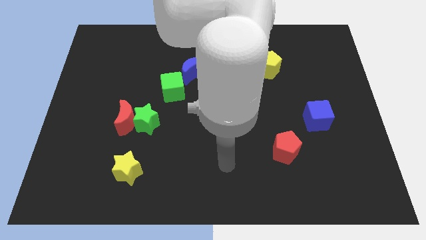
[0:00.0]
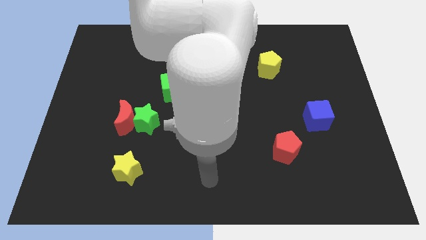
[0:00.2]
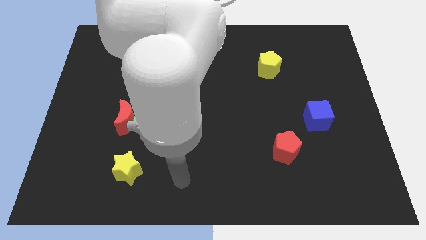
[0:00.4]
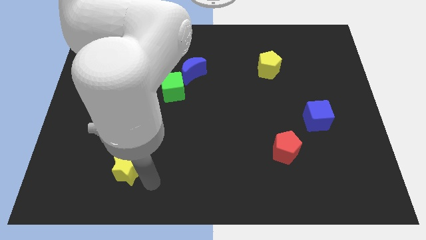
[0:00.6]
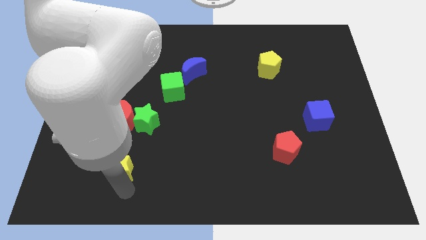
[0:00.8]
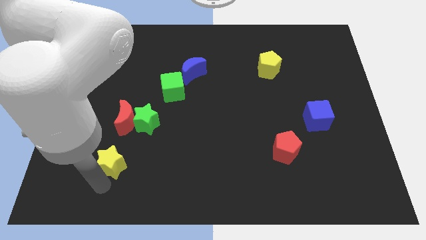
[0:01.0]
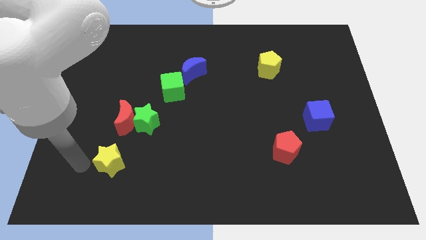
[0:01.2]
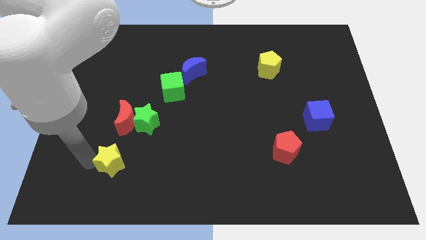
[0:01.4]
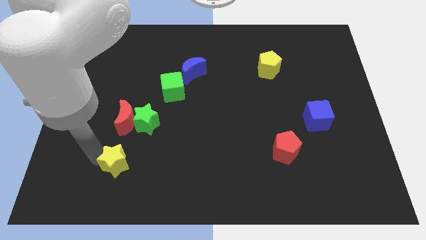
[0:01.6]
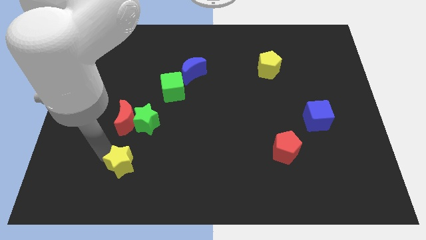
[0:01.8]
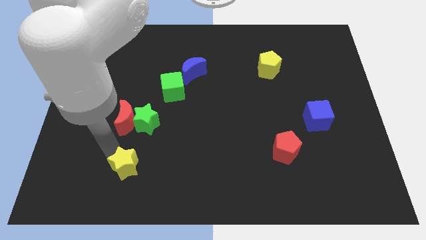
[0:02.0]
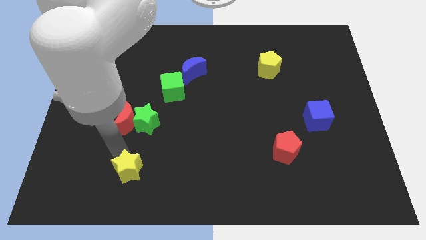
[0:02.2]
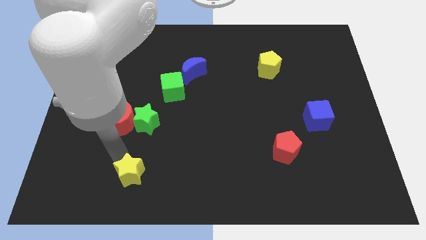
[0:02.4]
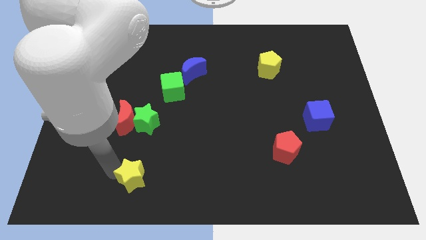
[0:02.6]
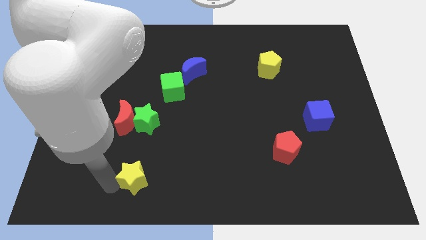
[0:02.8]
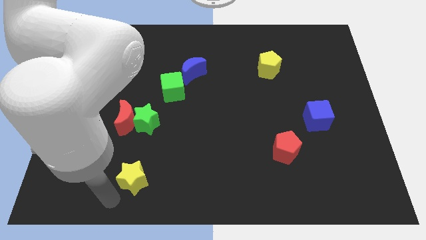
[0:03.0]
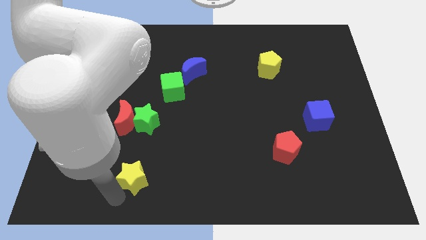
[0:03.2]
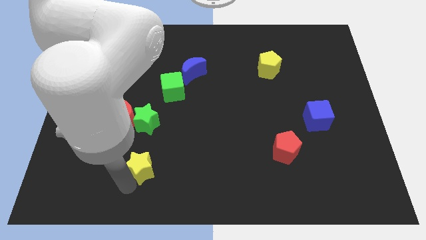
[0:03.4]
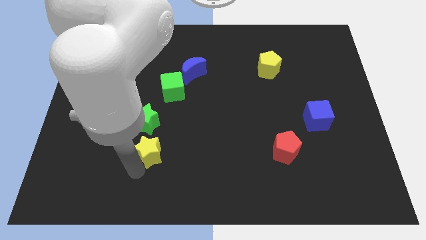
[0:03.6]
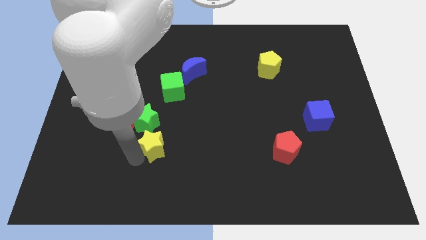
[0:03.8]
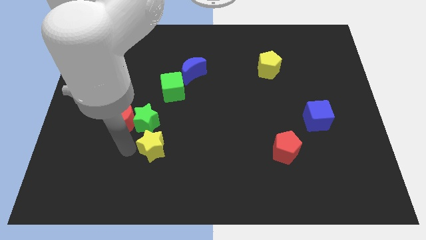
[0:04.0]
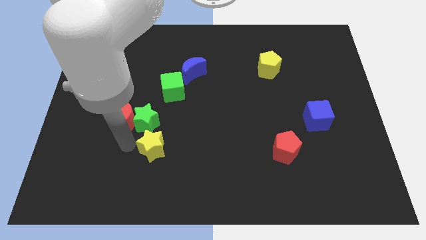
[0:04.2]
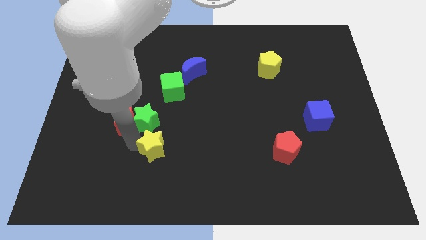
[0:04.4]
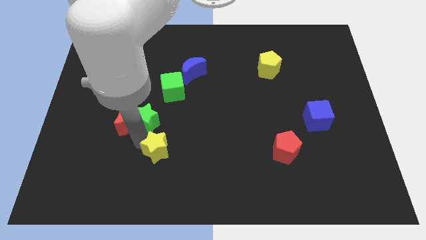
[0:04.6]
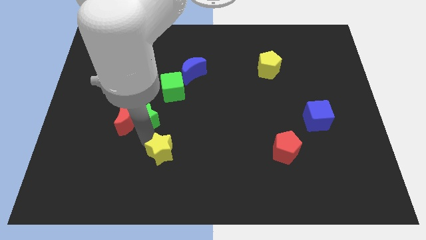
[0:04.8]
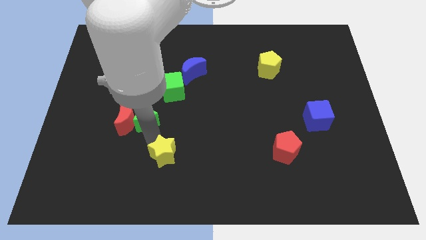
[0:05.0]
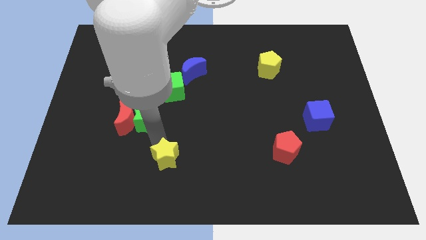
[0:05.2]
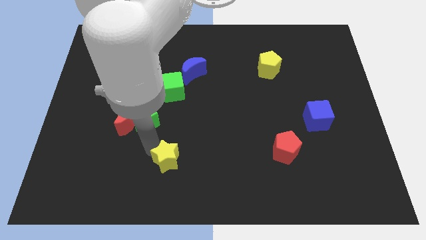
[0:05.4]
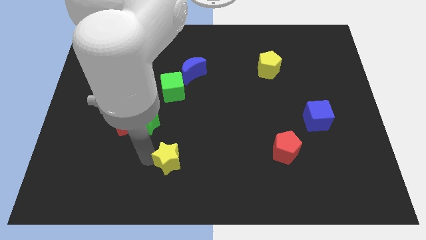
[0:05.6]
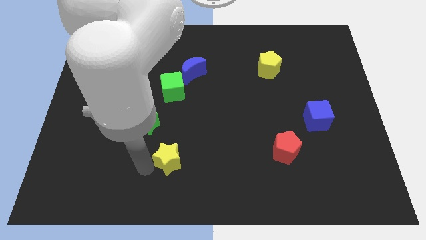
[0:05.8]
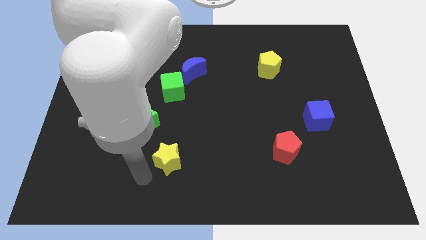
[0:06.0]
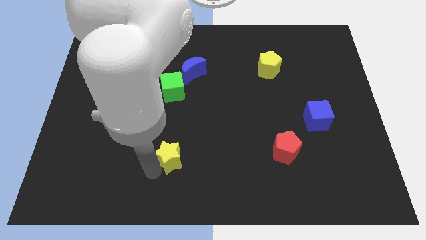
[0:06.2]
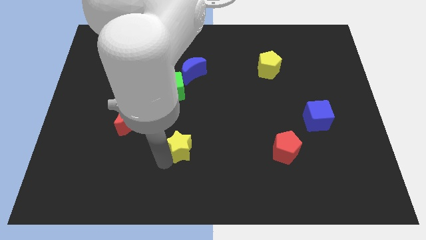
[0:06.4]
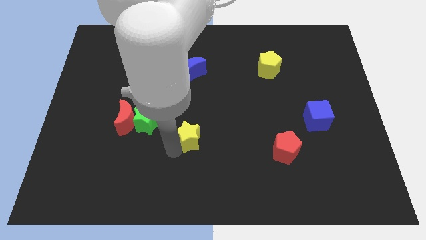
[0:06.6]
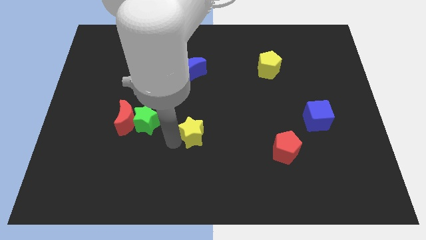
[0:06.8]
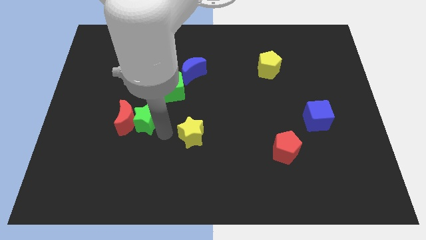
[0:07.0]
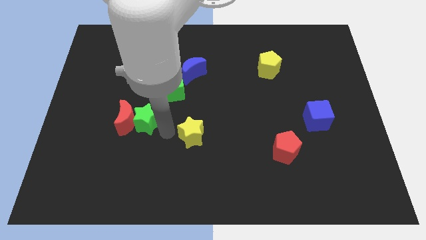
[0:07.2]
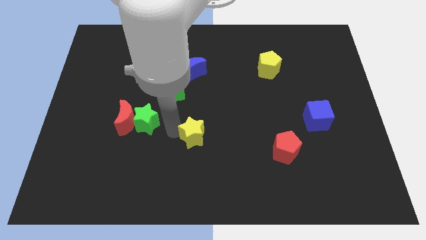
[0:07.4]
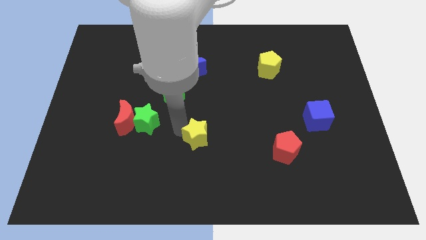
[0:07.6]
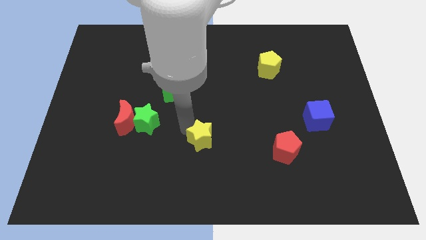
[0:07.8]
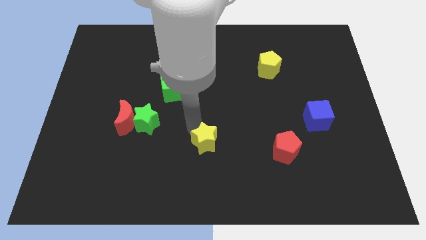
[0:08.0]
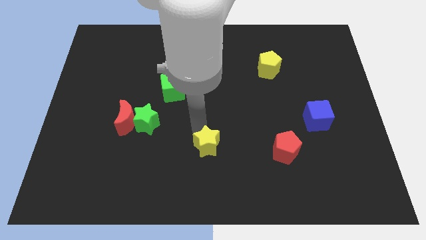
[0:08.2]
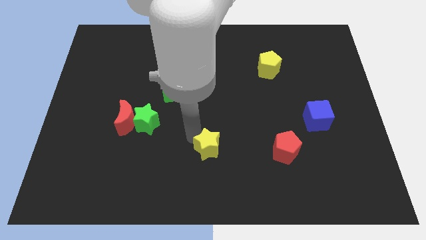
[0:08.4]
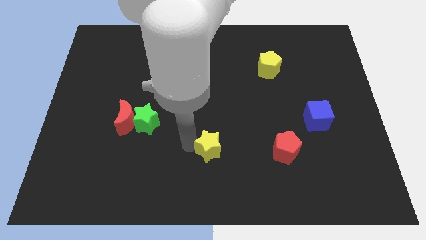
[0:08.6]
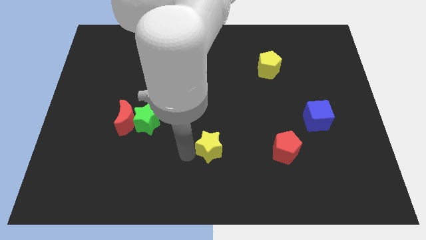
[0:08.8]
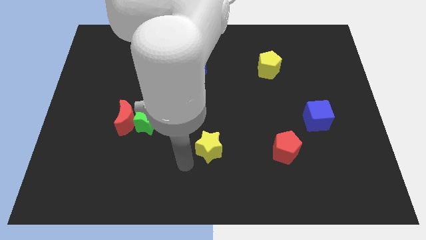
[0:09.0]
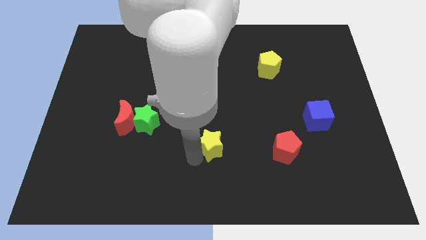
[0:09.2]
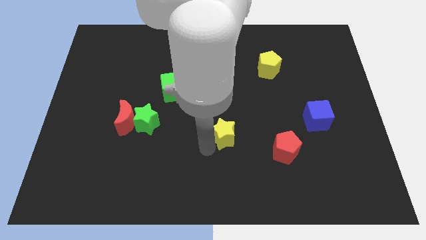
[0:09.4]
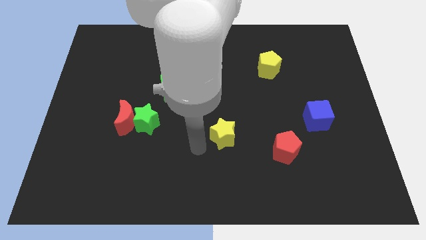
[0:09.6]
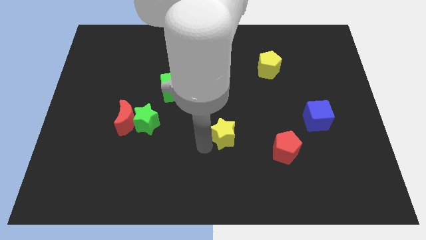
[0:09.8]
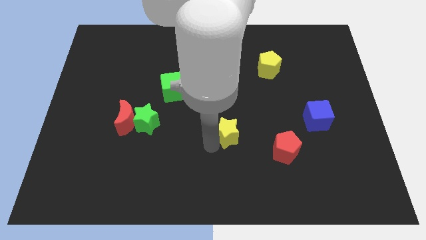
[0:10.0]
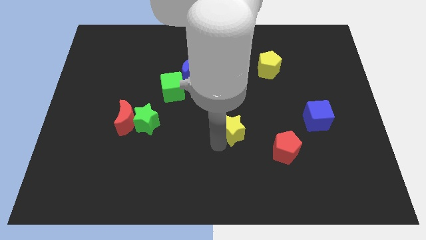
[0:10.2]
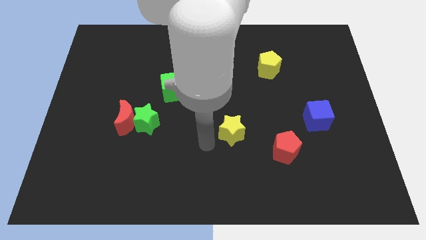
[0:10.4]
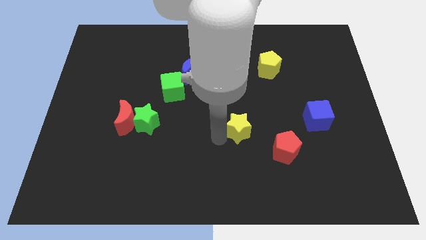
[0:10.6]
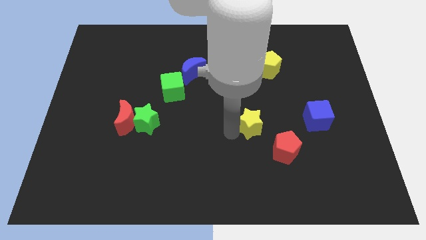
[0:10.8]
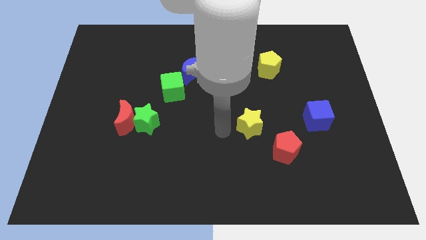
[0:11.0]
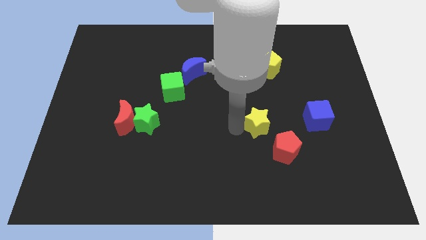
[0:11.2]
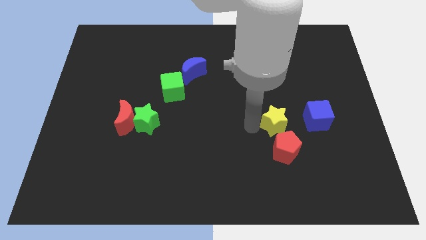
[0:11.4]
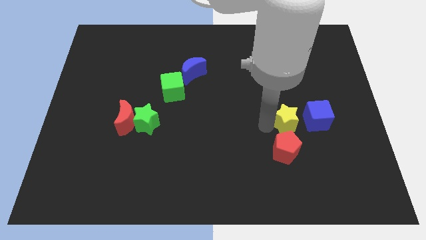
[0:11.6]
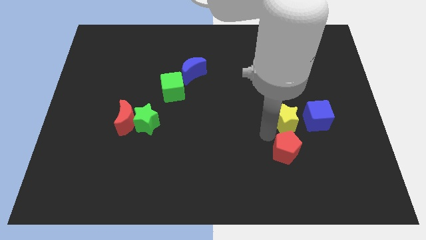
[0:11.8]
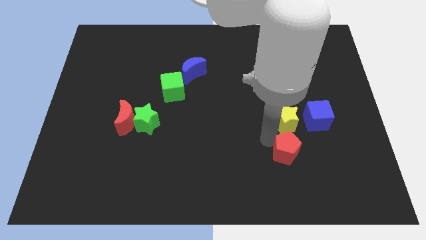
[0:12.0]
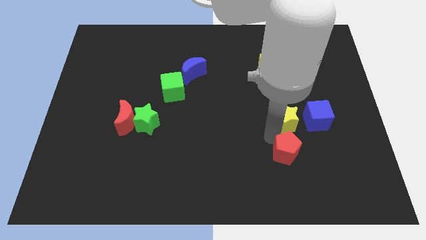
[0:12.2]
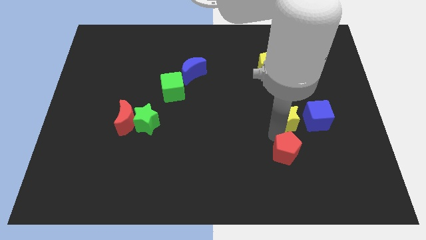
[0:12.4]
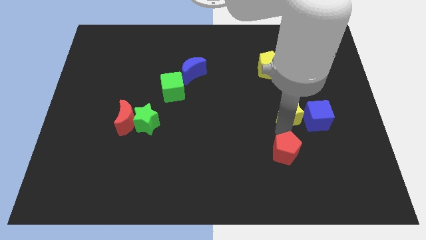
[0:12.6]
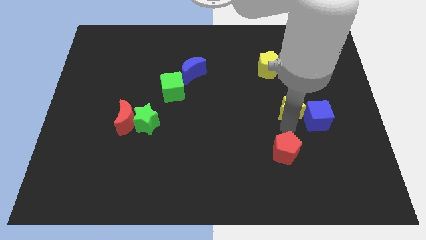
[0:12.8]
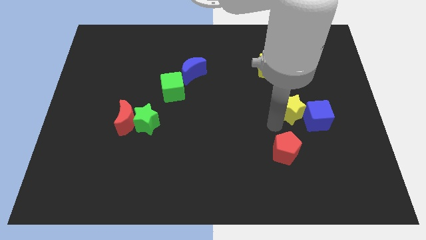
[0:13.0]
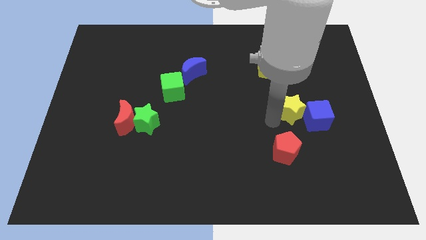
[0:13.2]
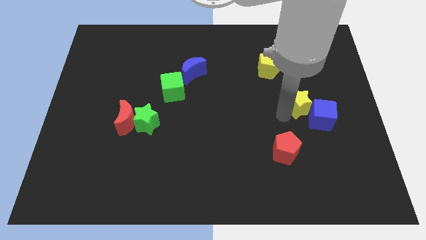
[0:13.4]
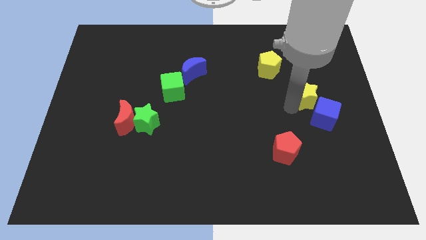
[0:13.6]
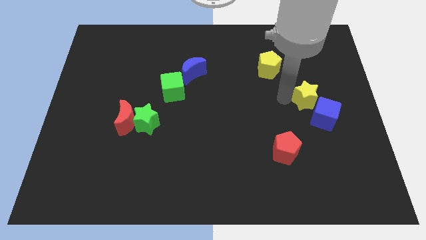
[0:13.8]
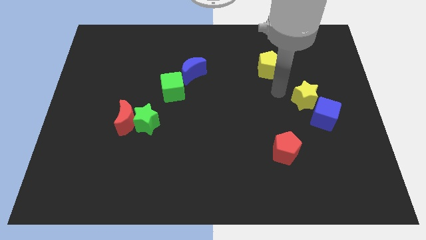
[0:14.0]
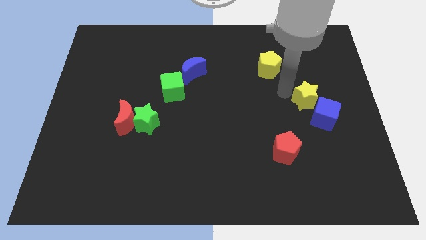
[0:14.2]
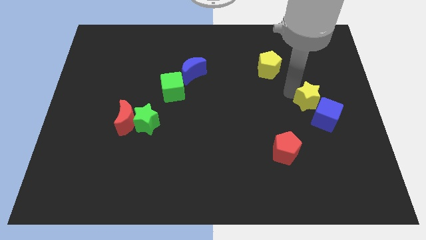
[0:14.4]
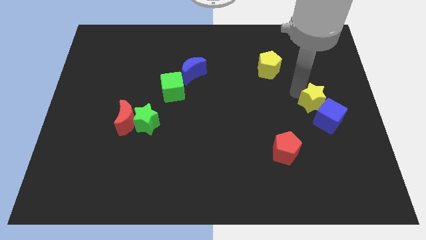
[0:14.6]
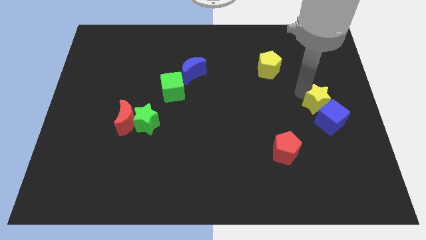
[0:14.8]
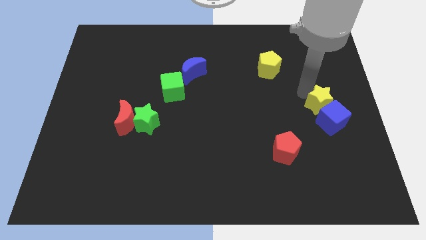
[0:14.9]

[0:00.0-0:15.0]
put the yellow star to the center right
